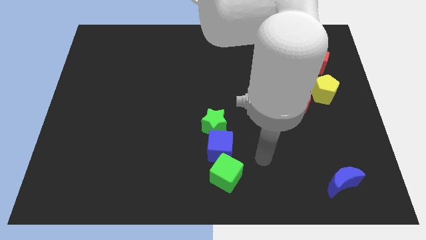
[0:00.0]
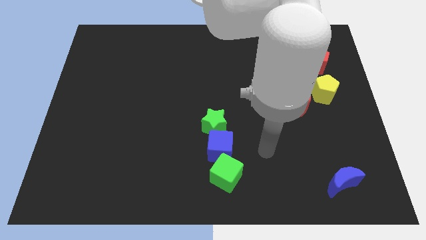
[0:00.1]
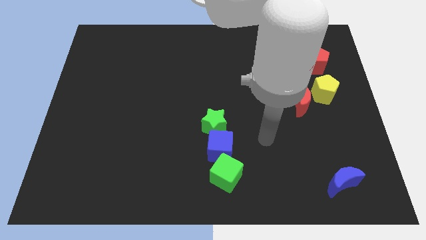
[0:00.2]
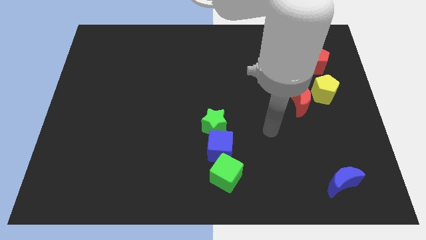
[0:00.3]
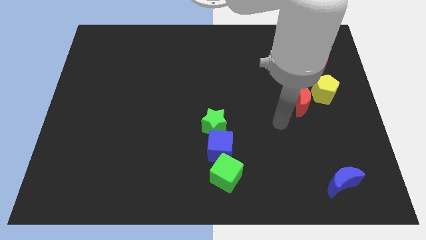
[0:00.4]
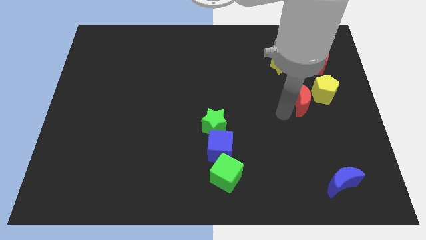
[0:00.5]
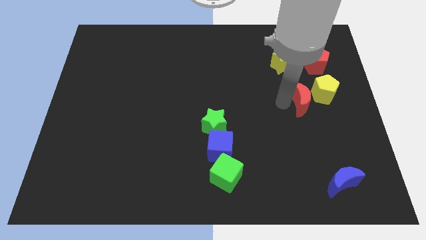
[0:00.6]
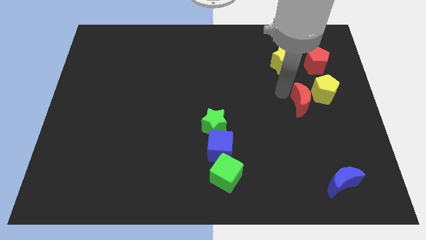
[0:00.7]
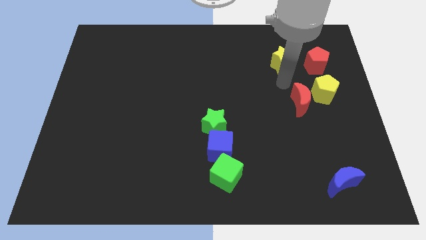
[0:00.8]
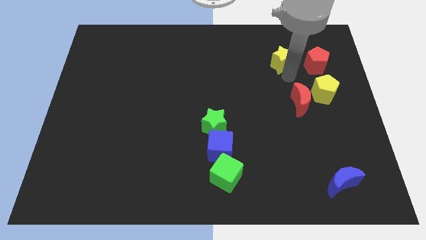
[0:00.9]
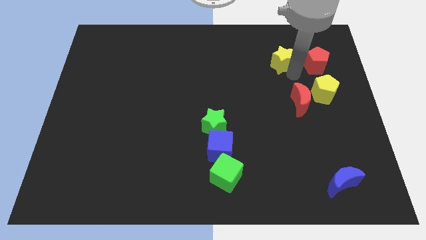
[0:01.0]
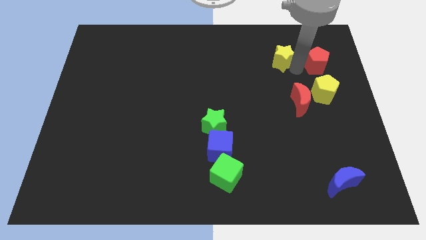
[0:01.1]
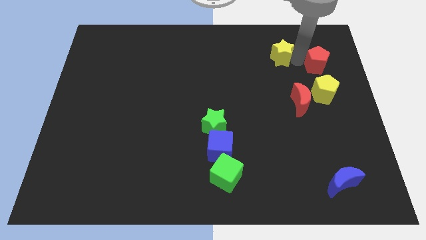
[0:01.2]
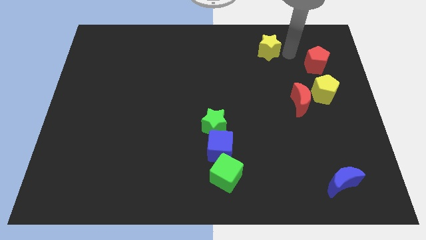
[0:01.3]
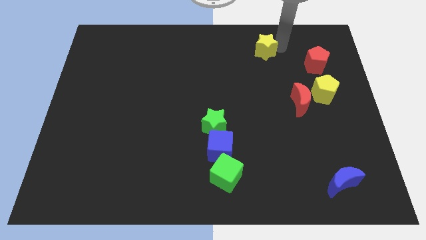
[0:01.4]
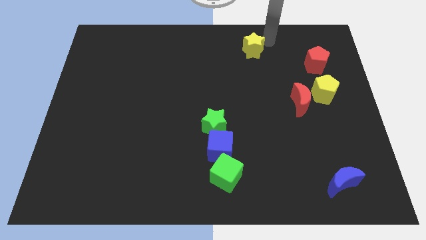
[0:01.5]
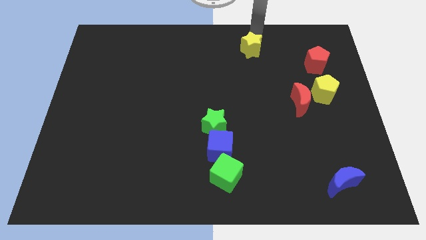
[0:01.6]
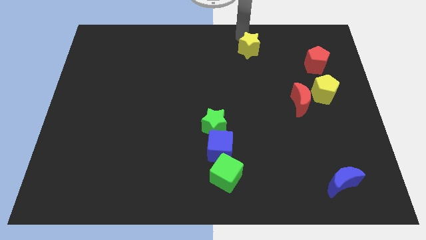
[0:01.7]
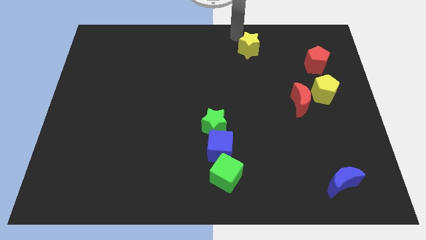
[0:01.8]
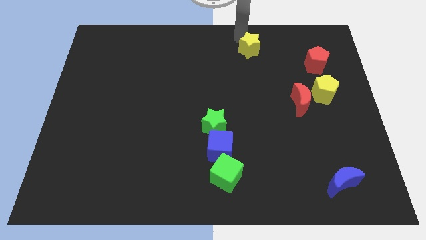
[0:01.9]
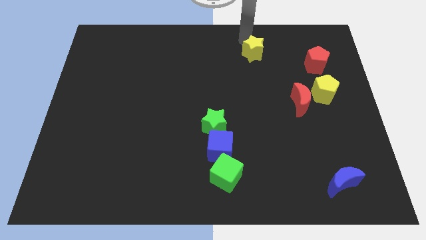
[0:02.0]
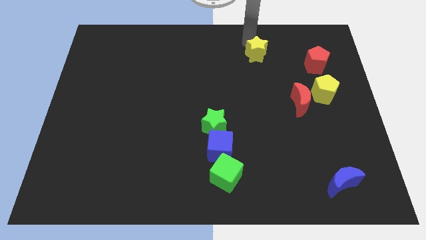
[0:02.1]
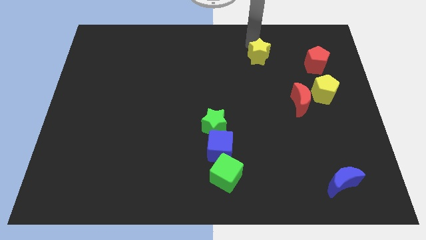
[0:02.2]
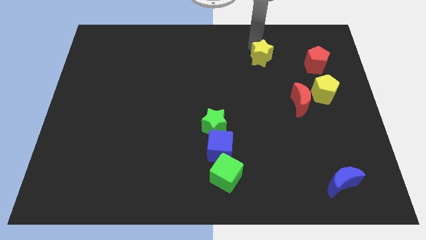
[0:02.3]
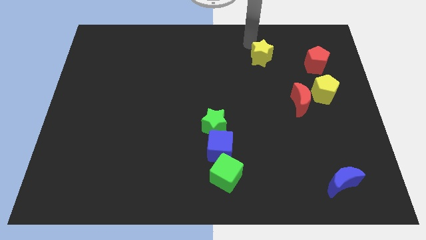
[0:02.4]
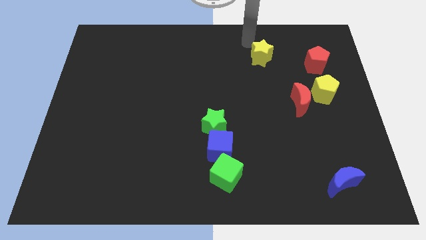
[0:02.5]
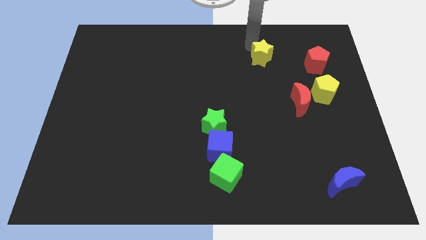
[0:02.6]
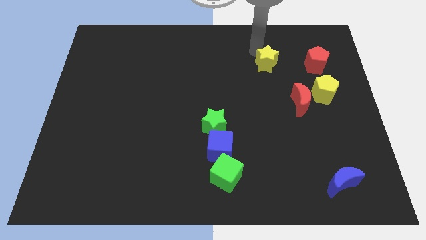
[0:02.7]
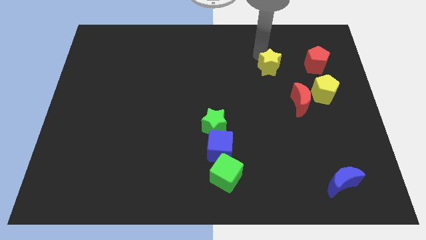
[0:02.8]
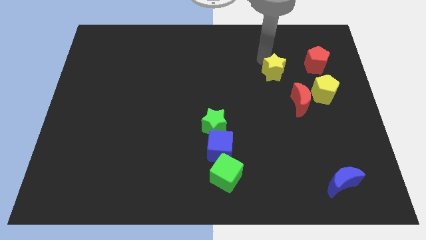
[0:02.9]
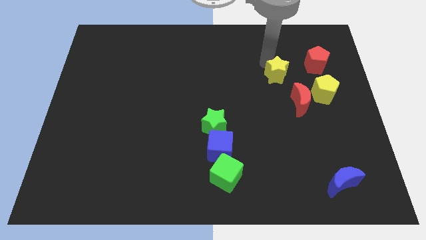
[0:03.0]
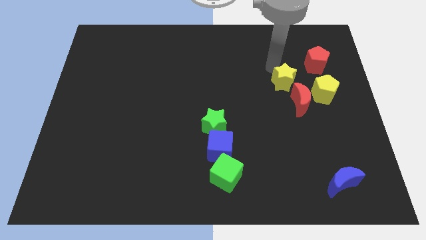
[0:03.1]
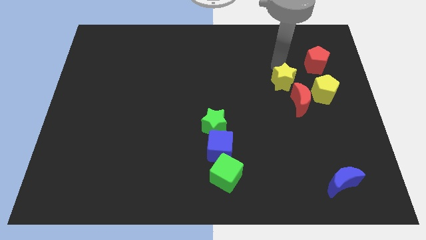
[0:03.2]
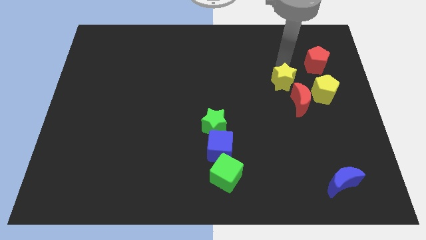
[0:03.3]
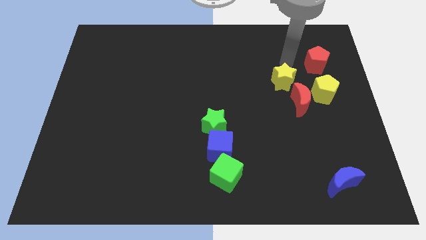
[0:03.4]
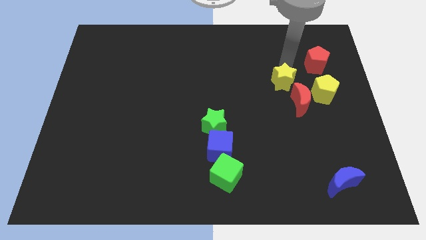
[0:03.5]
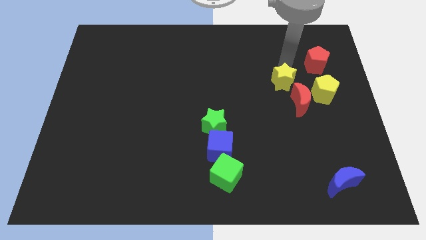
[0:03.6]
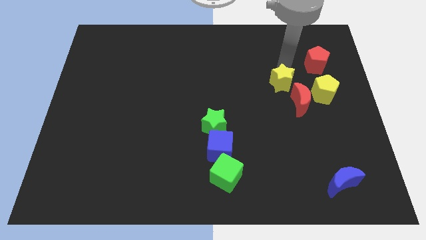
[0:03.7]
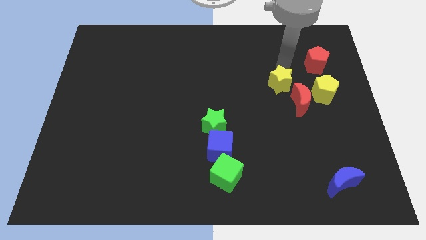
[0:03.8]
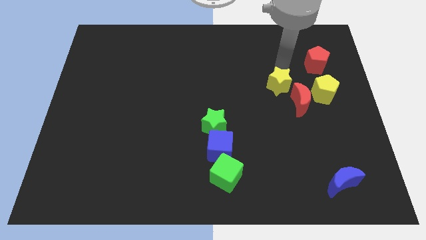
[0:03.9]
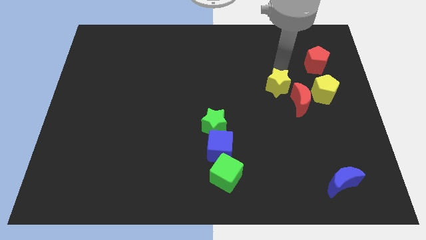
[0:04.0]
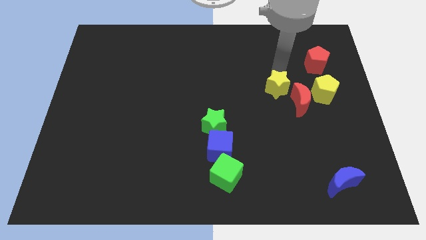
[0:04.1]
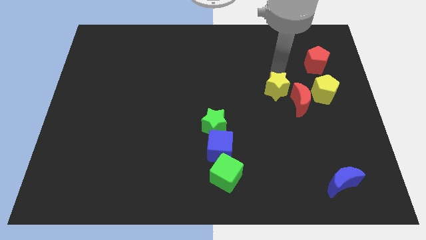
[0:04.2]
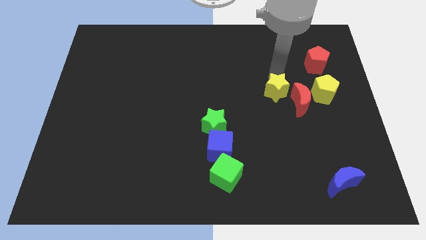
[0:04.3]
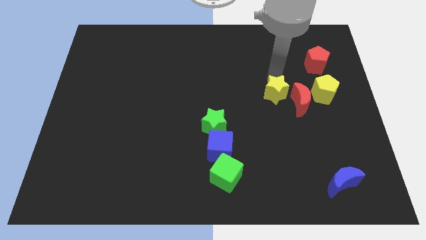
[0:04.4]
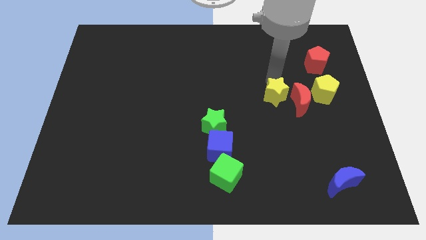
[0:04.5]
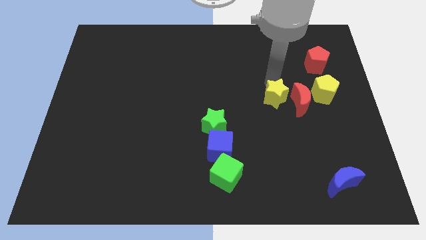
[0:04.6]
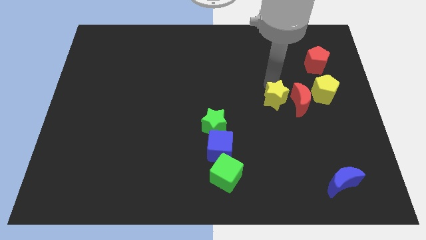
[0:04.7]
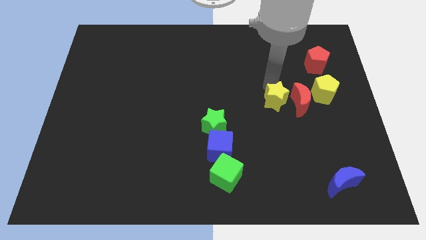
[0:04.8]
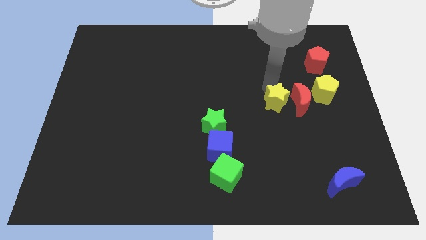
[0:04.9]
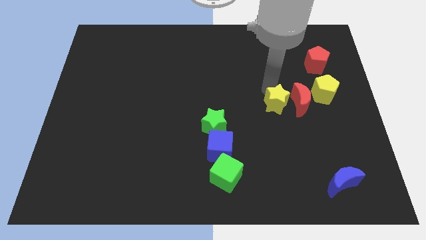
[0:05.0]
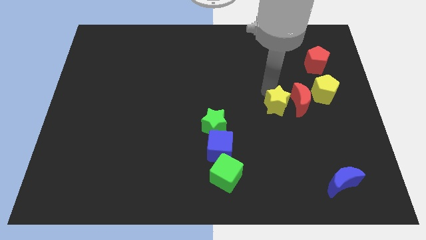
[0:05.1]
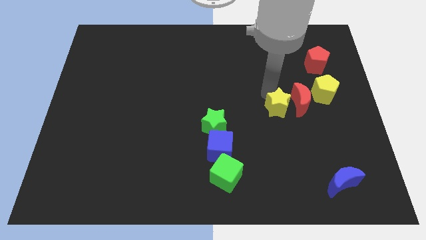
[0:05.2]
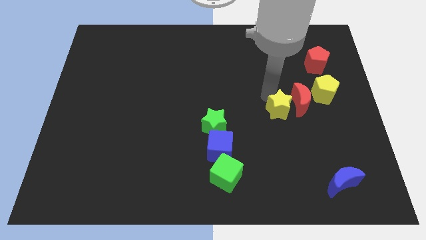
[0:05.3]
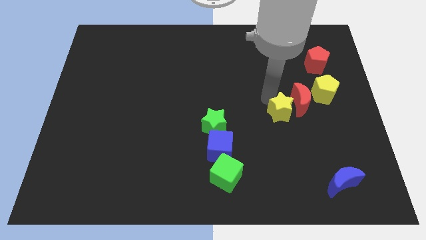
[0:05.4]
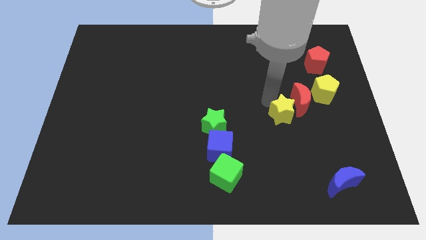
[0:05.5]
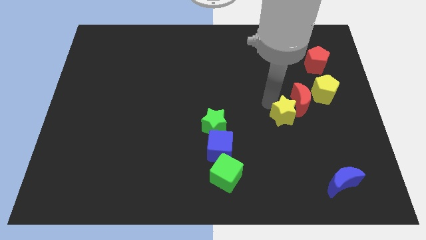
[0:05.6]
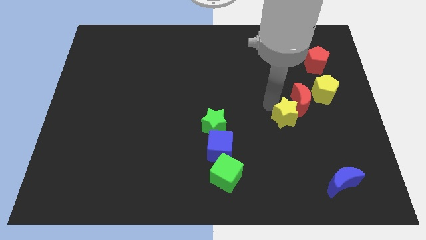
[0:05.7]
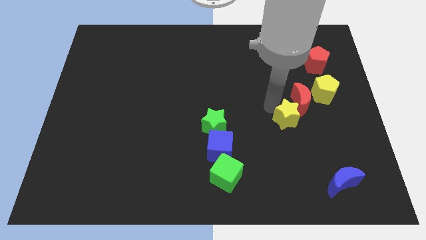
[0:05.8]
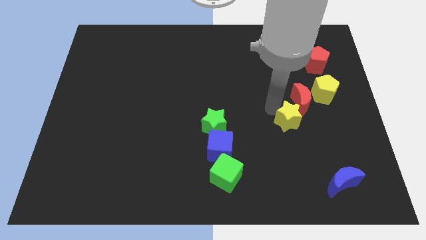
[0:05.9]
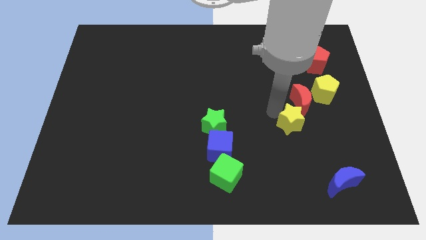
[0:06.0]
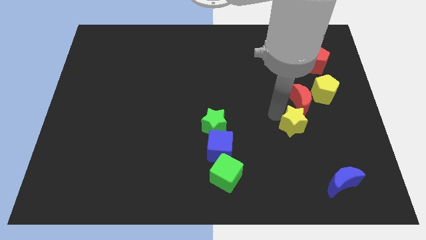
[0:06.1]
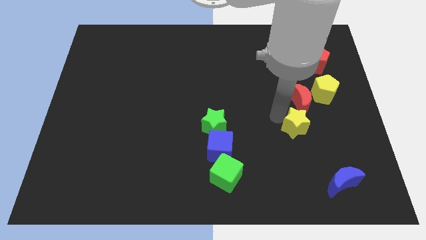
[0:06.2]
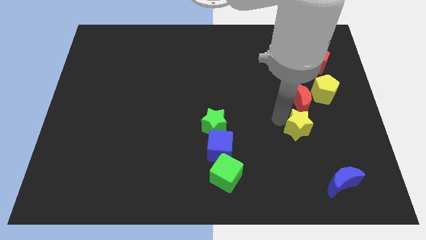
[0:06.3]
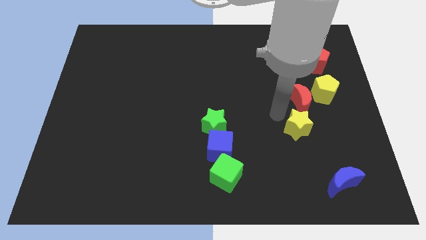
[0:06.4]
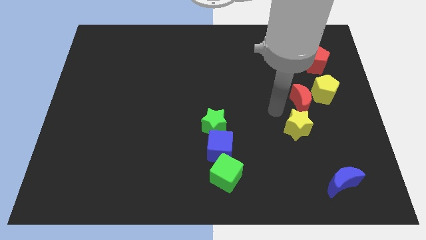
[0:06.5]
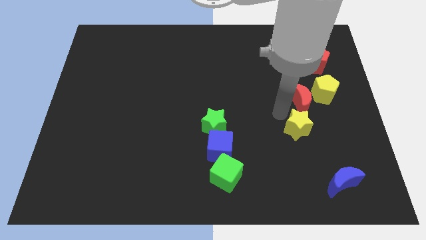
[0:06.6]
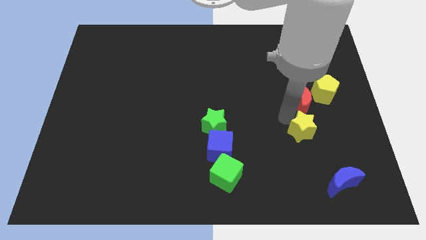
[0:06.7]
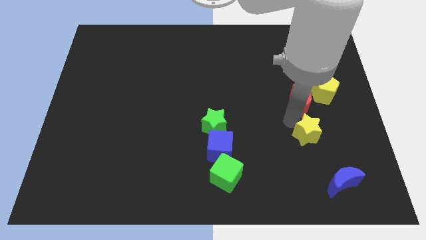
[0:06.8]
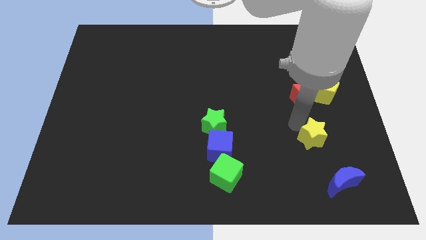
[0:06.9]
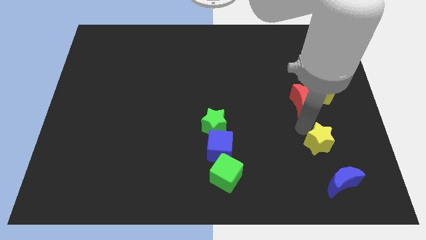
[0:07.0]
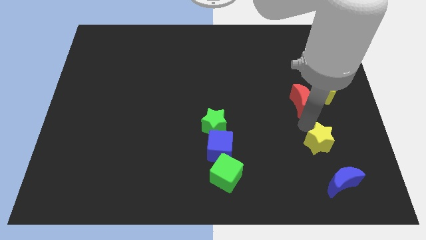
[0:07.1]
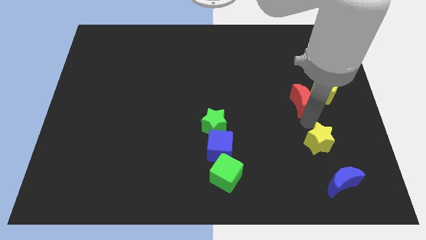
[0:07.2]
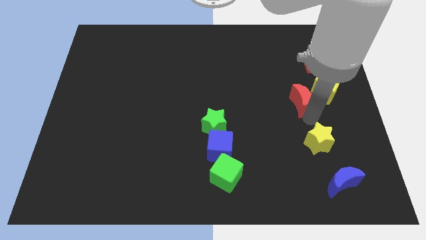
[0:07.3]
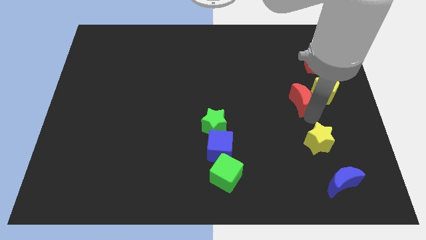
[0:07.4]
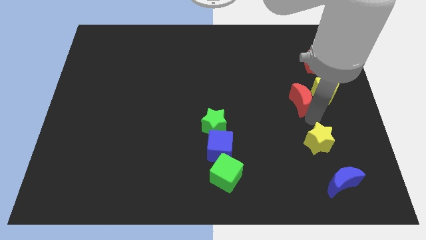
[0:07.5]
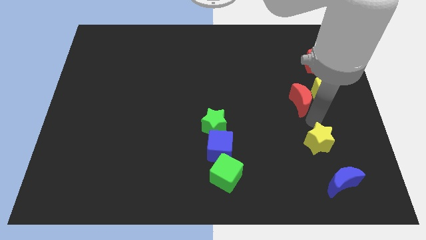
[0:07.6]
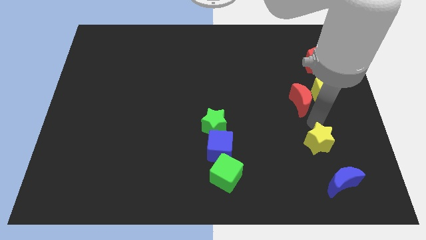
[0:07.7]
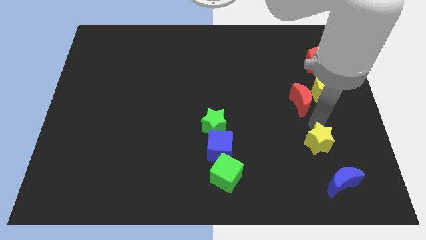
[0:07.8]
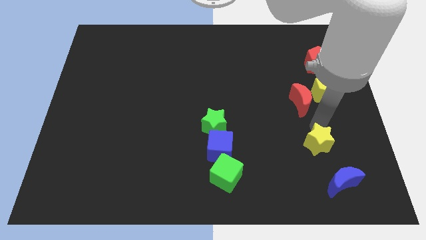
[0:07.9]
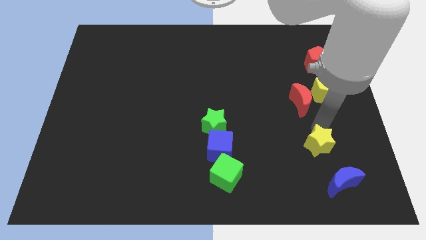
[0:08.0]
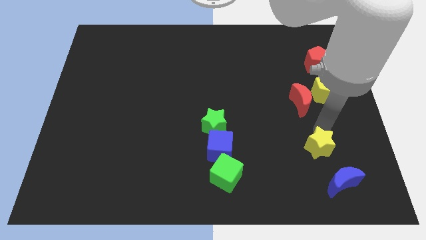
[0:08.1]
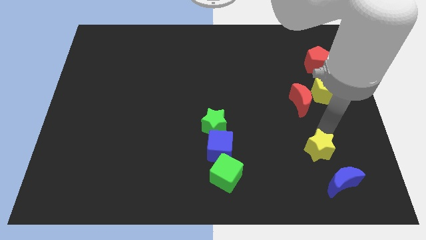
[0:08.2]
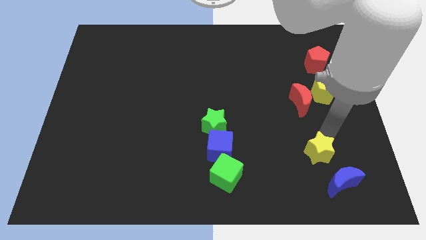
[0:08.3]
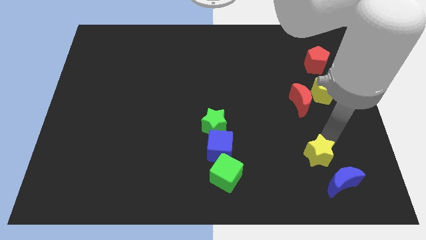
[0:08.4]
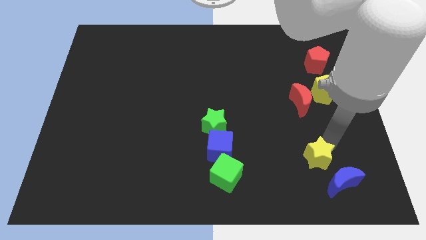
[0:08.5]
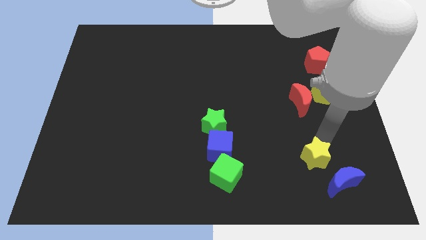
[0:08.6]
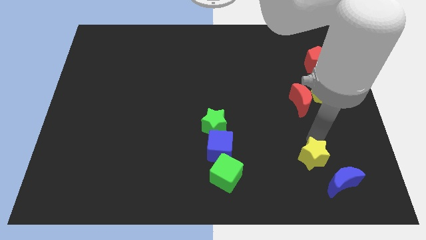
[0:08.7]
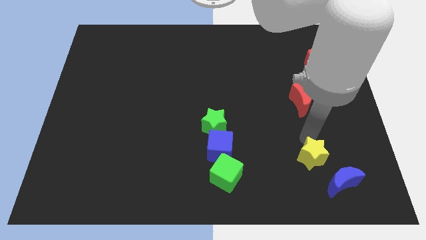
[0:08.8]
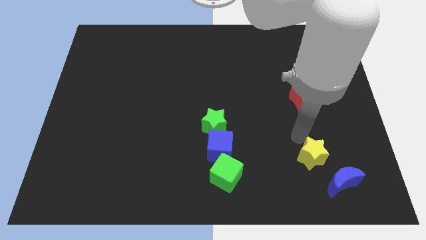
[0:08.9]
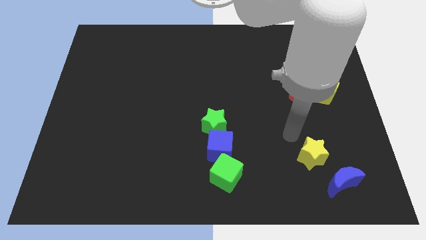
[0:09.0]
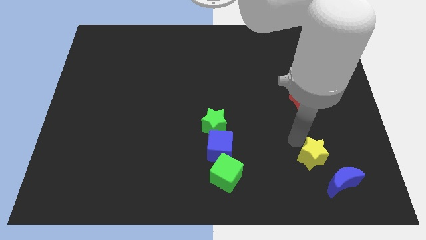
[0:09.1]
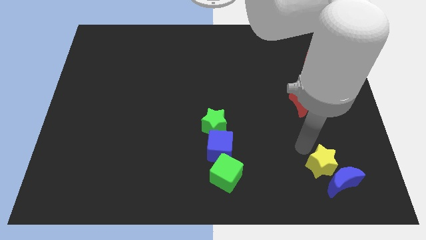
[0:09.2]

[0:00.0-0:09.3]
move the yellow star to the blue moon
